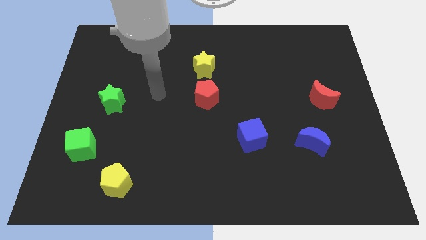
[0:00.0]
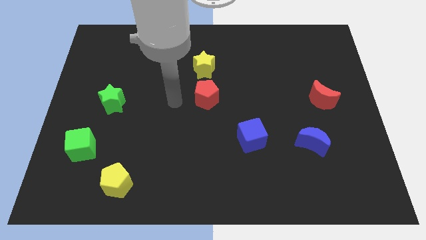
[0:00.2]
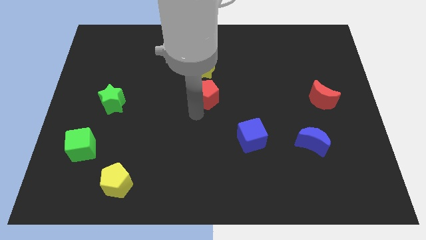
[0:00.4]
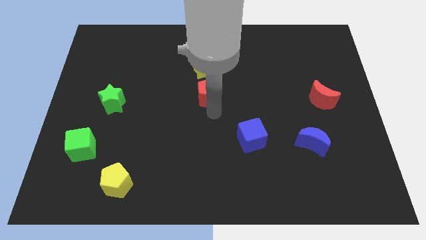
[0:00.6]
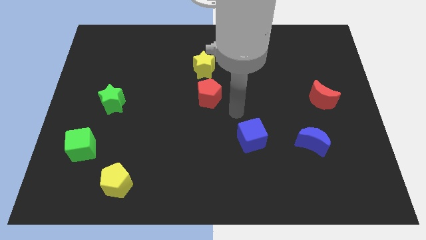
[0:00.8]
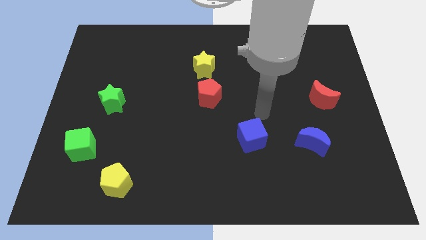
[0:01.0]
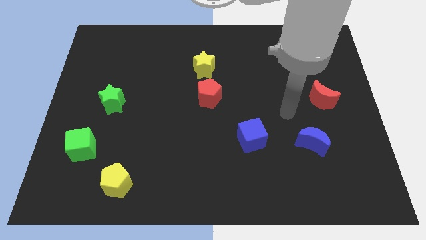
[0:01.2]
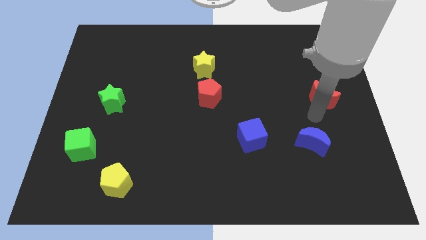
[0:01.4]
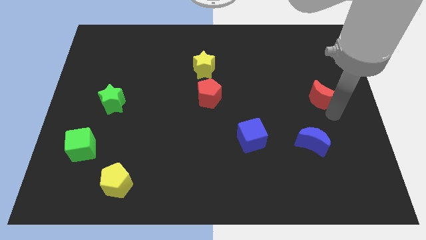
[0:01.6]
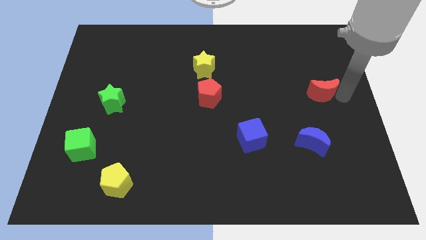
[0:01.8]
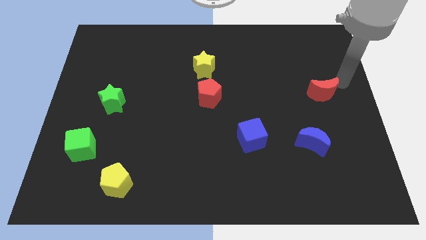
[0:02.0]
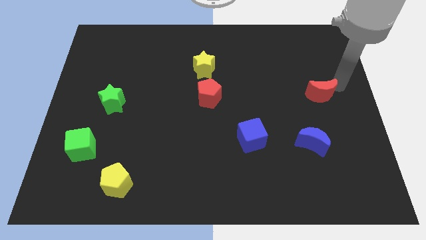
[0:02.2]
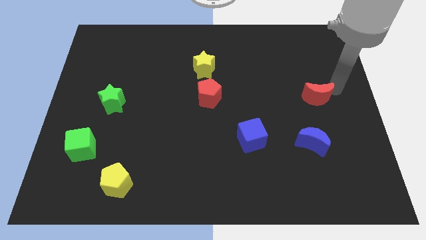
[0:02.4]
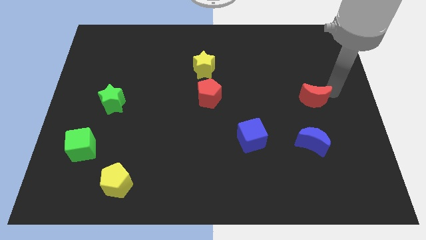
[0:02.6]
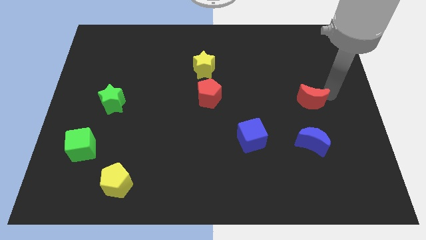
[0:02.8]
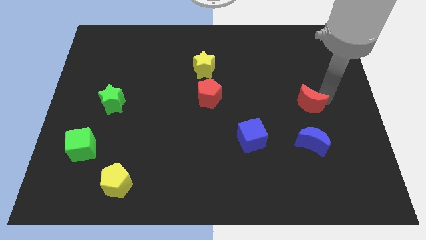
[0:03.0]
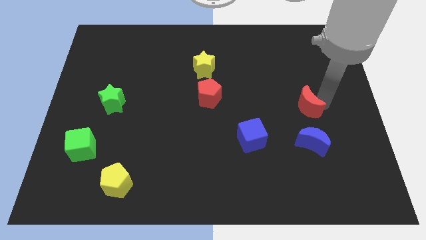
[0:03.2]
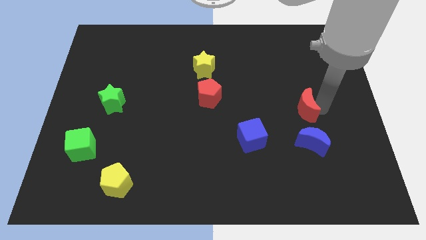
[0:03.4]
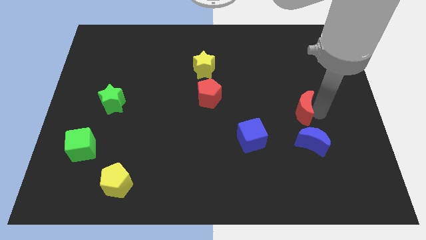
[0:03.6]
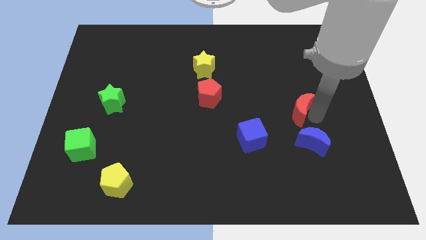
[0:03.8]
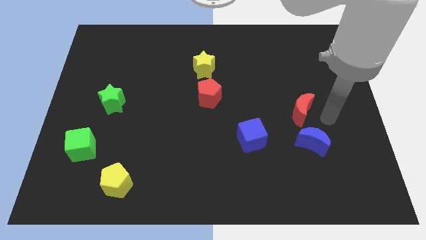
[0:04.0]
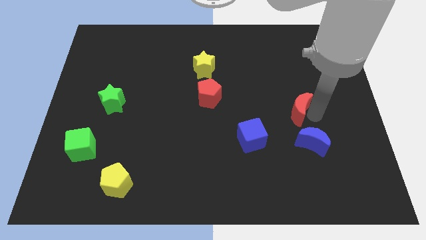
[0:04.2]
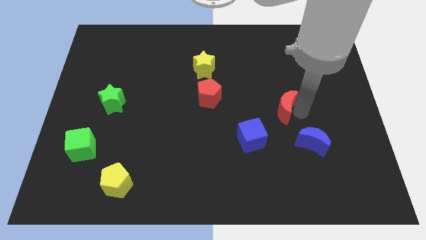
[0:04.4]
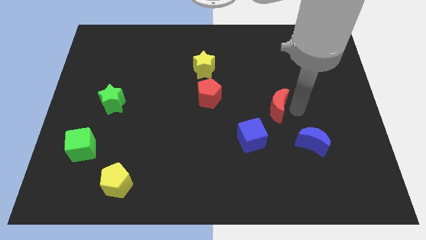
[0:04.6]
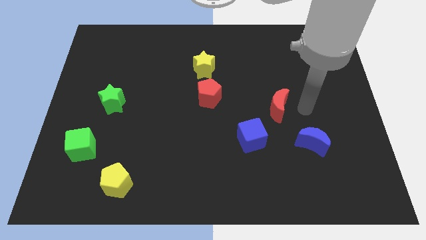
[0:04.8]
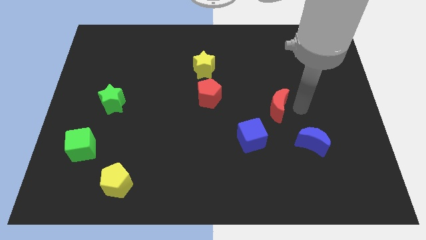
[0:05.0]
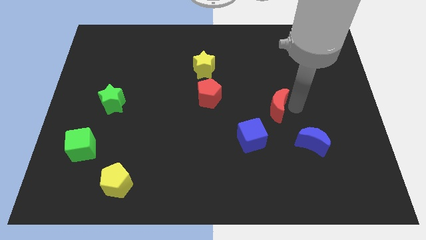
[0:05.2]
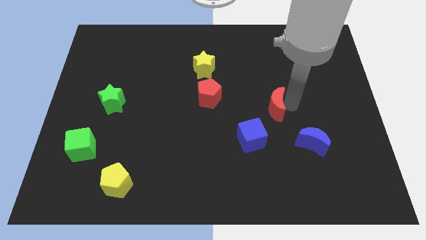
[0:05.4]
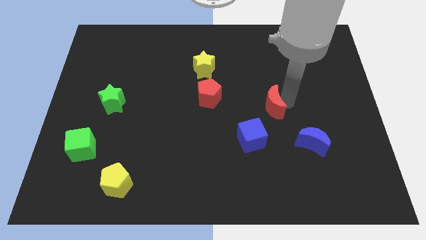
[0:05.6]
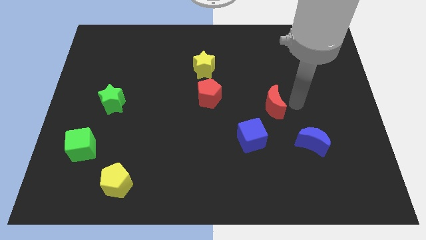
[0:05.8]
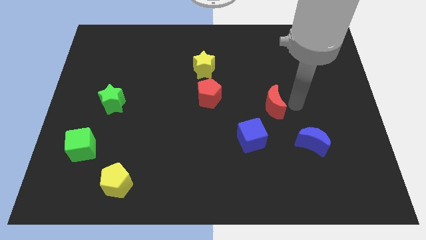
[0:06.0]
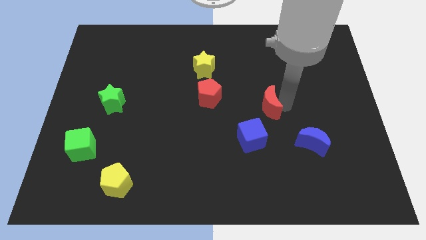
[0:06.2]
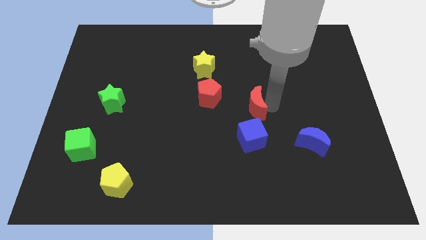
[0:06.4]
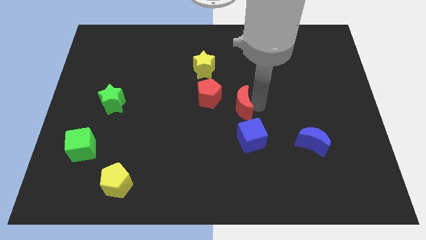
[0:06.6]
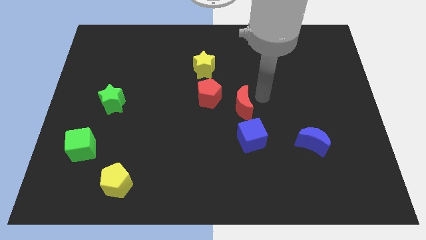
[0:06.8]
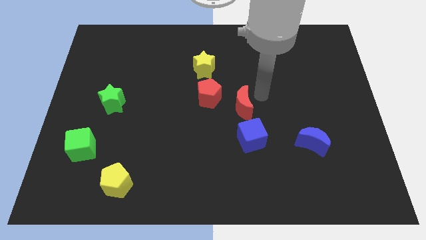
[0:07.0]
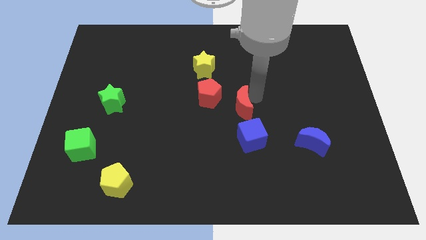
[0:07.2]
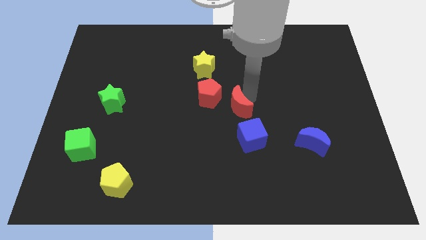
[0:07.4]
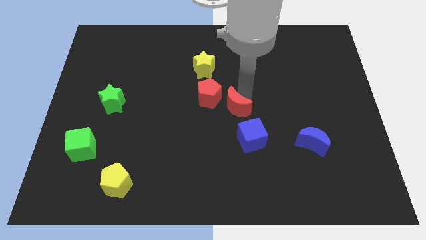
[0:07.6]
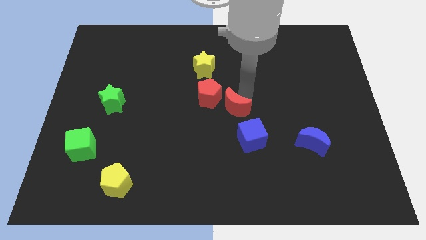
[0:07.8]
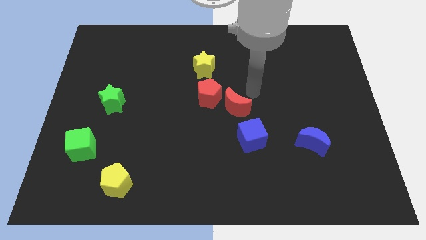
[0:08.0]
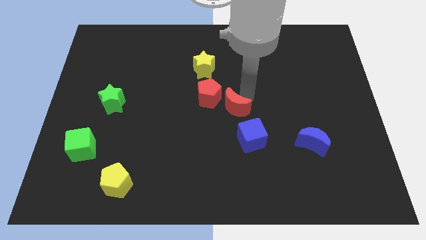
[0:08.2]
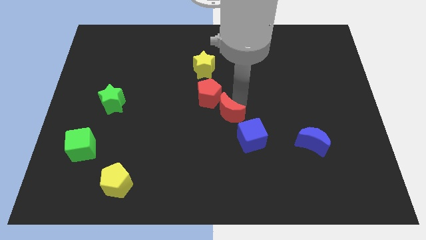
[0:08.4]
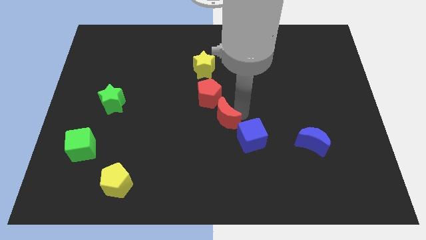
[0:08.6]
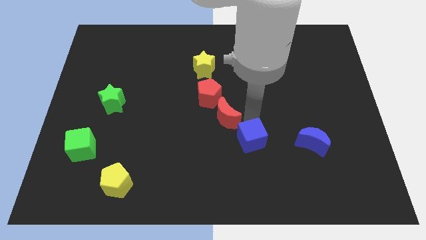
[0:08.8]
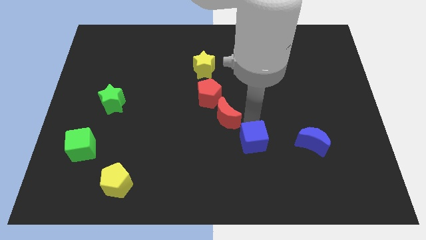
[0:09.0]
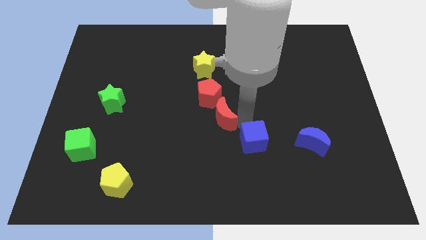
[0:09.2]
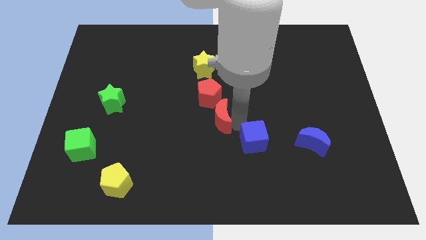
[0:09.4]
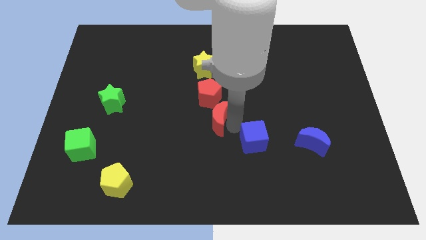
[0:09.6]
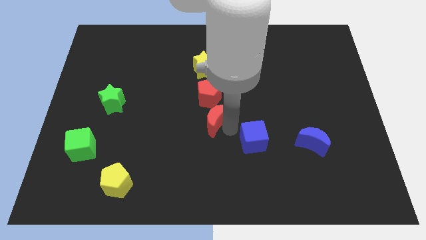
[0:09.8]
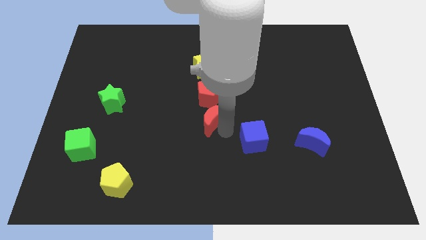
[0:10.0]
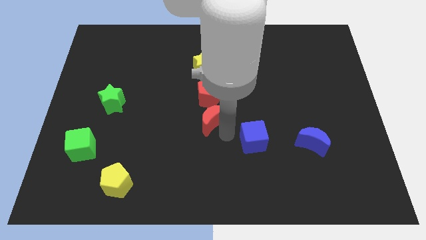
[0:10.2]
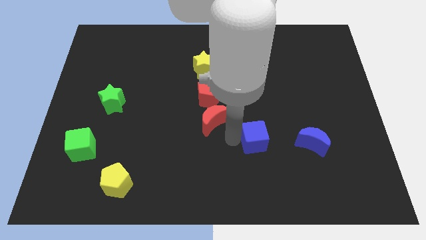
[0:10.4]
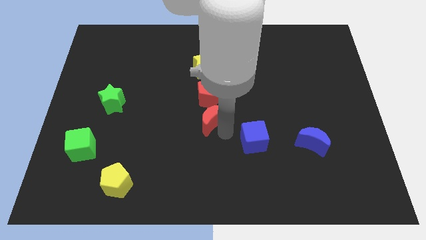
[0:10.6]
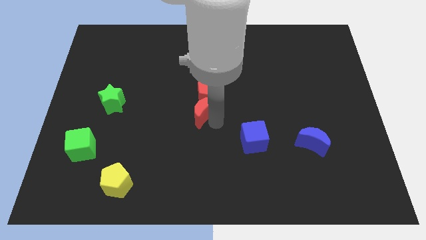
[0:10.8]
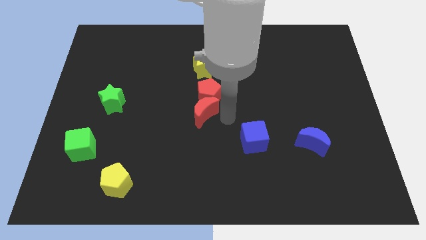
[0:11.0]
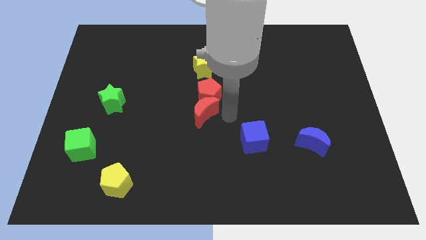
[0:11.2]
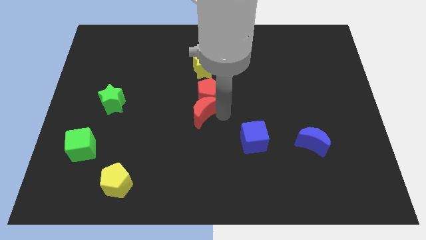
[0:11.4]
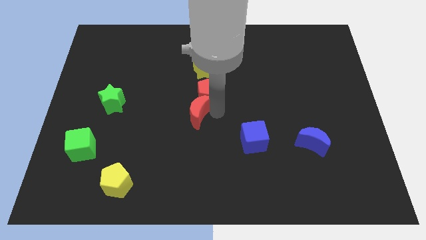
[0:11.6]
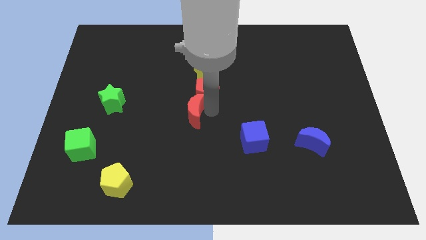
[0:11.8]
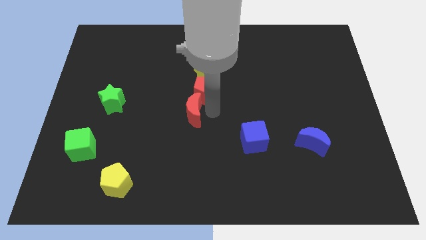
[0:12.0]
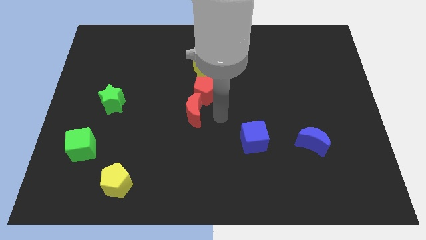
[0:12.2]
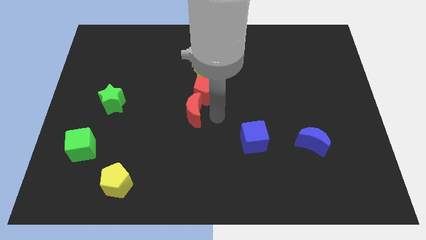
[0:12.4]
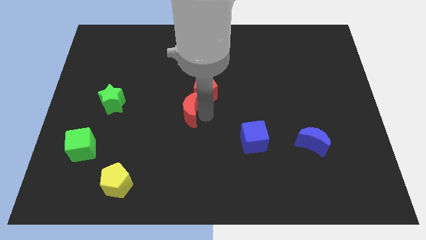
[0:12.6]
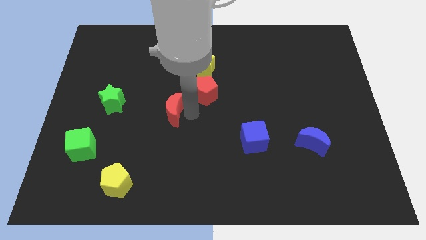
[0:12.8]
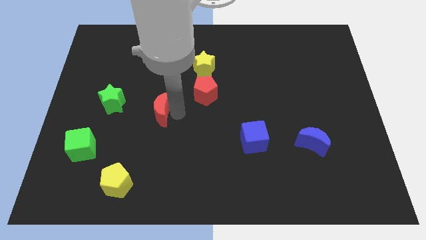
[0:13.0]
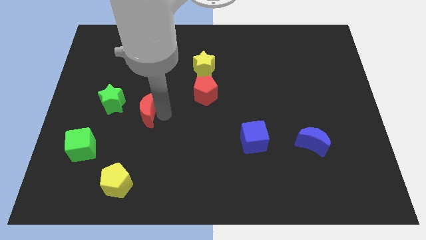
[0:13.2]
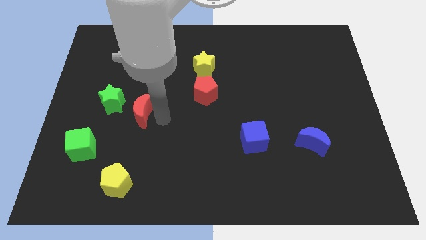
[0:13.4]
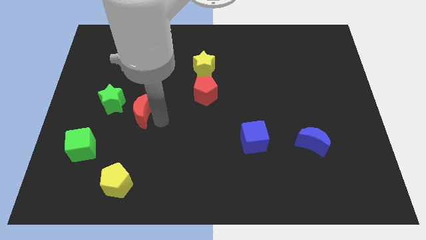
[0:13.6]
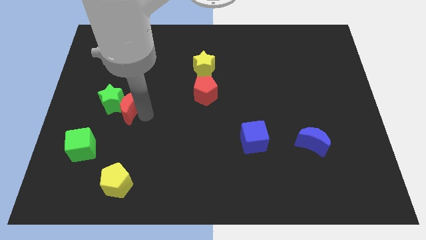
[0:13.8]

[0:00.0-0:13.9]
push the red moon to the green star

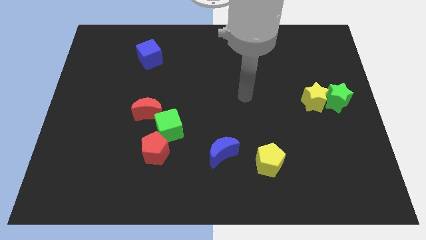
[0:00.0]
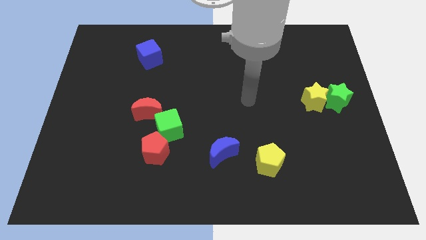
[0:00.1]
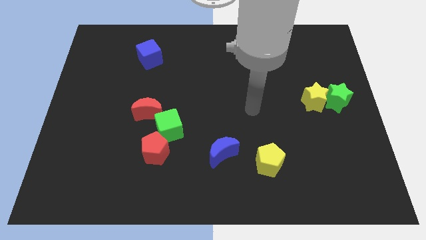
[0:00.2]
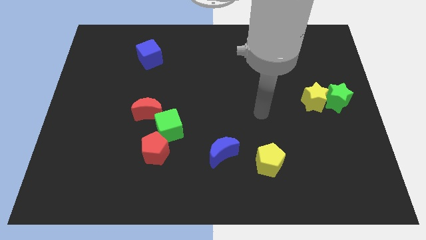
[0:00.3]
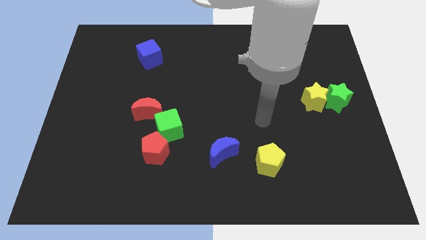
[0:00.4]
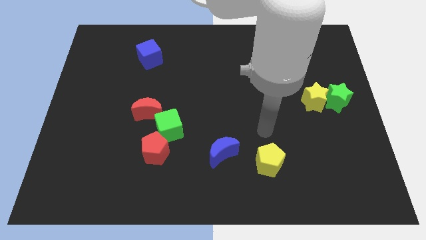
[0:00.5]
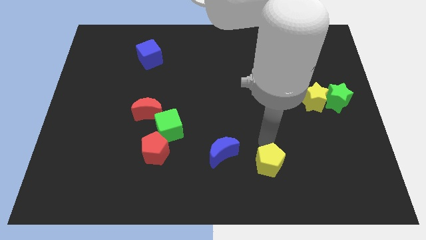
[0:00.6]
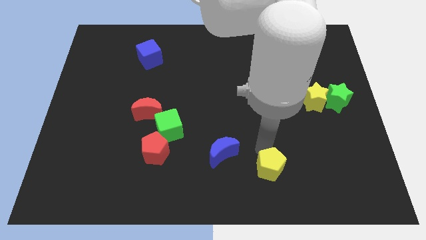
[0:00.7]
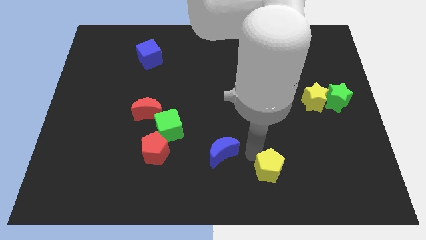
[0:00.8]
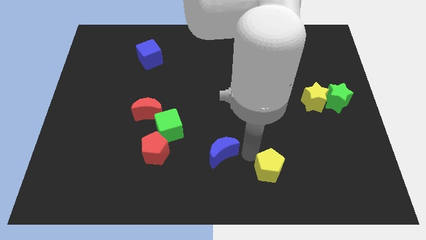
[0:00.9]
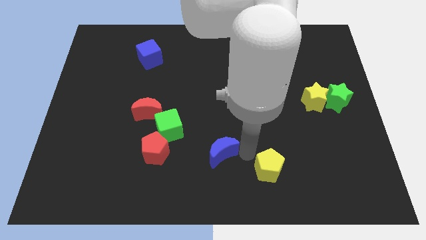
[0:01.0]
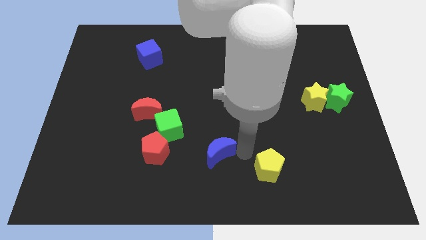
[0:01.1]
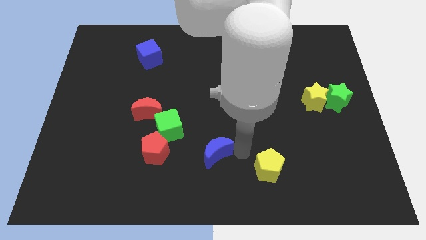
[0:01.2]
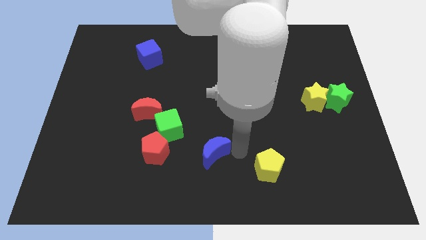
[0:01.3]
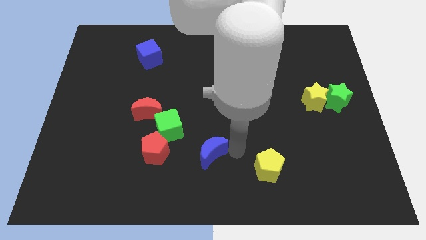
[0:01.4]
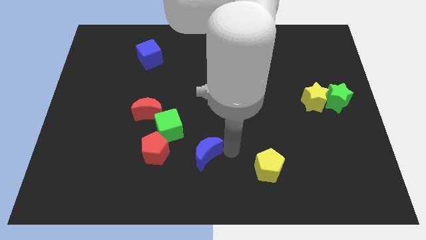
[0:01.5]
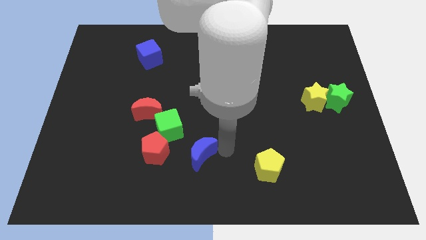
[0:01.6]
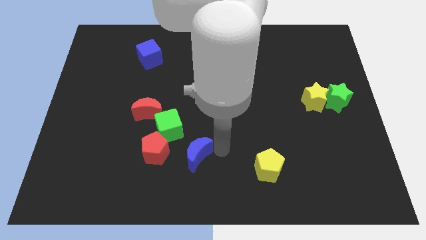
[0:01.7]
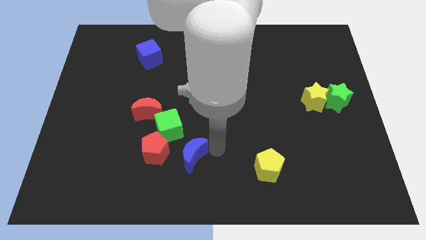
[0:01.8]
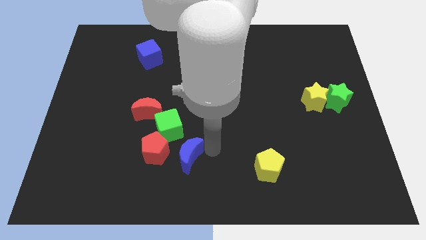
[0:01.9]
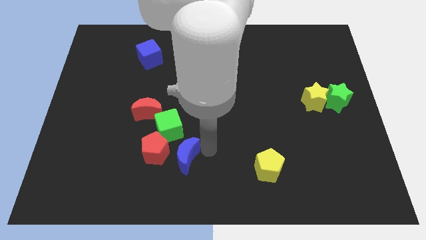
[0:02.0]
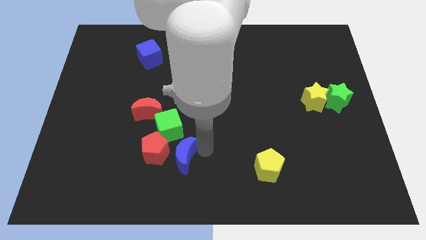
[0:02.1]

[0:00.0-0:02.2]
push the blue moon next to the red pentagon
